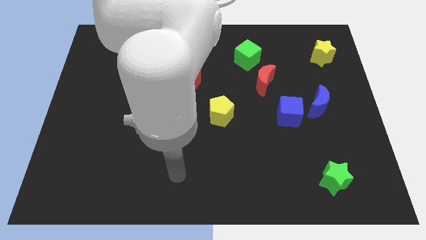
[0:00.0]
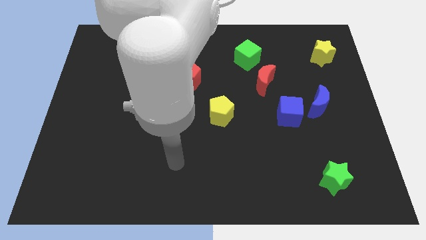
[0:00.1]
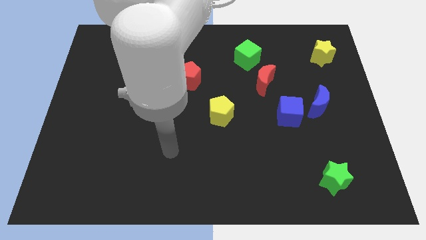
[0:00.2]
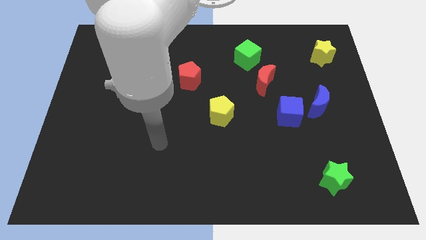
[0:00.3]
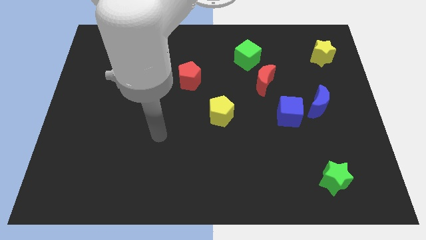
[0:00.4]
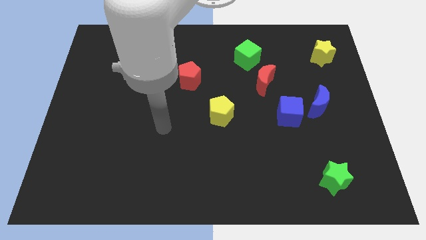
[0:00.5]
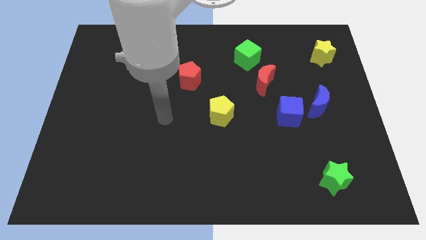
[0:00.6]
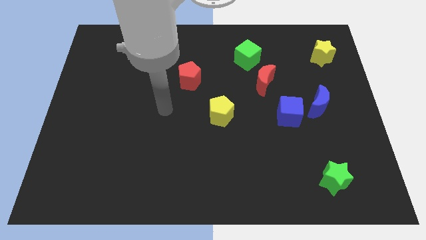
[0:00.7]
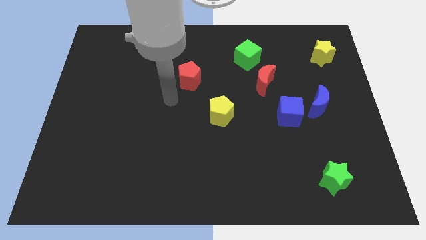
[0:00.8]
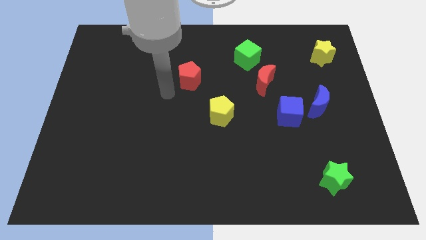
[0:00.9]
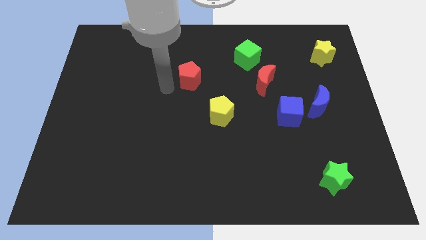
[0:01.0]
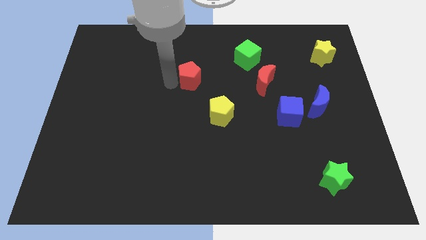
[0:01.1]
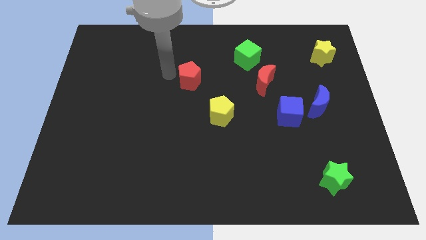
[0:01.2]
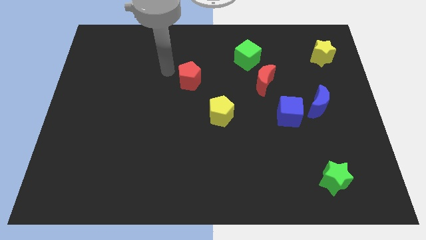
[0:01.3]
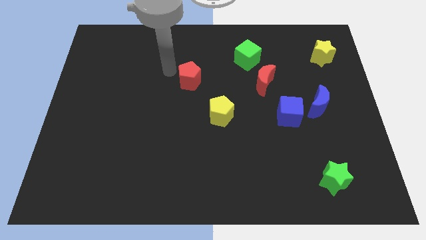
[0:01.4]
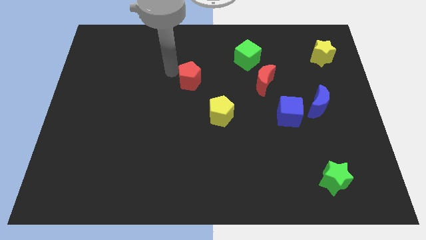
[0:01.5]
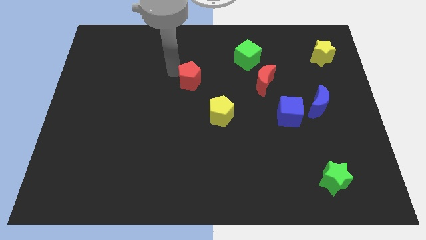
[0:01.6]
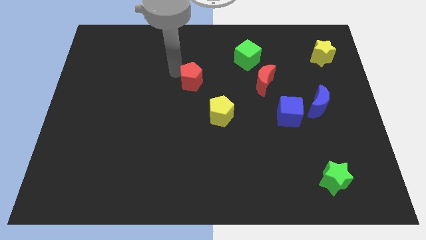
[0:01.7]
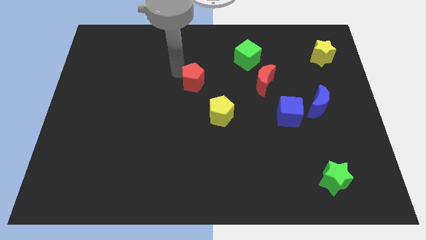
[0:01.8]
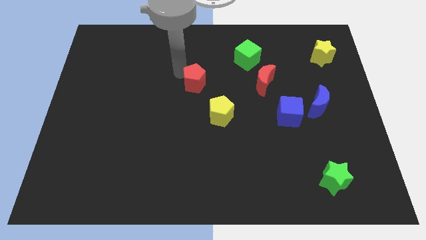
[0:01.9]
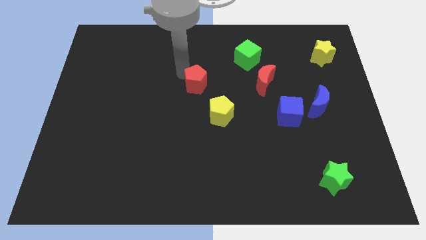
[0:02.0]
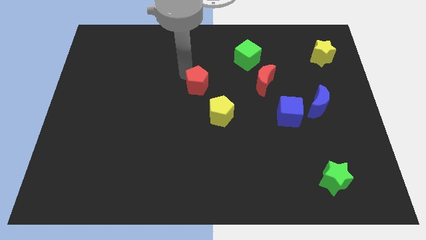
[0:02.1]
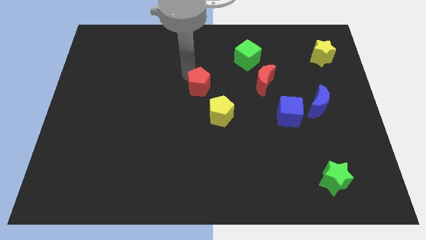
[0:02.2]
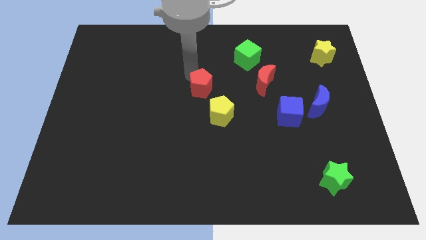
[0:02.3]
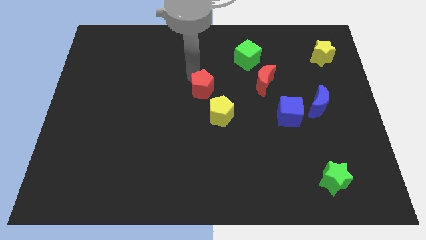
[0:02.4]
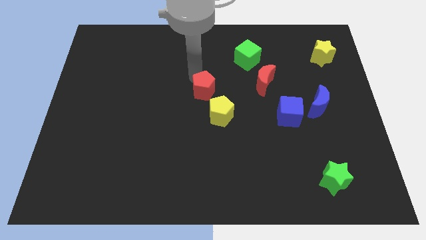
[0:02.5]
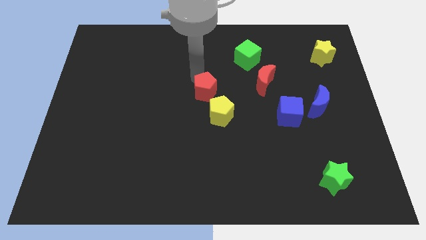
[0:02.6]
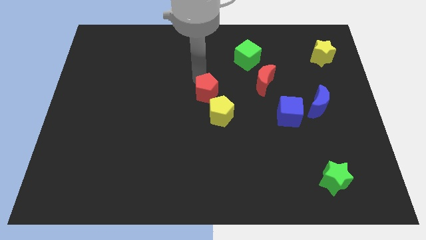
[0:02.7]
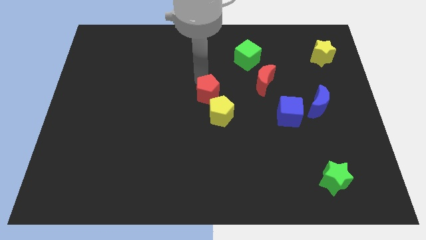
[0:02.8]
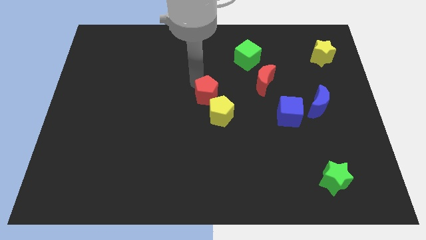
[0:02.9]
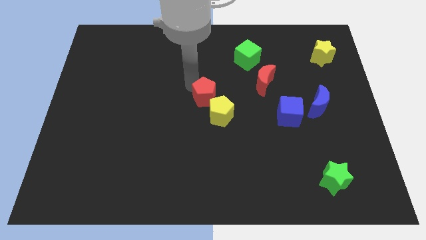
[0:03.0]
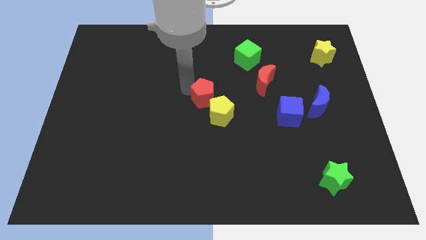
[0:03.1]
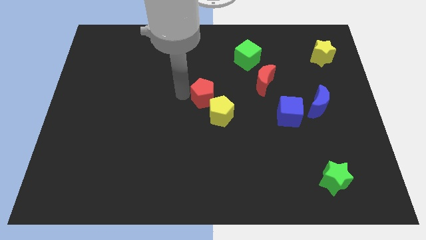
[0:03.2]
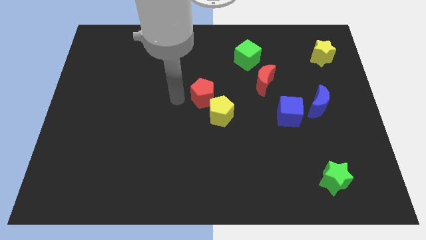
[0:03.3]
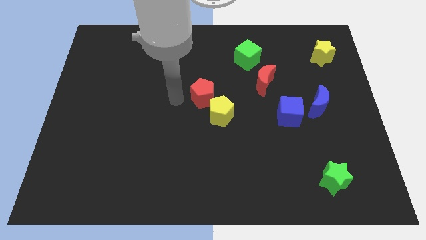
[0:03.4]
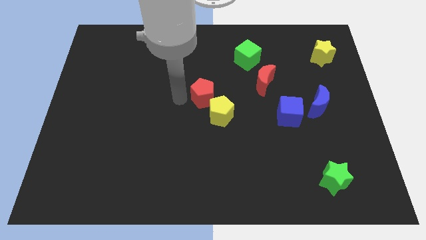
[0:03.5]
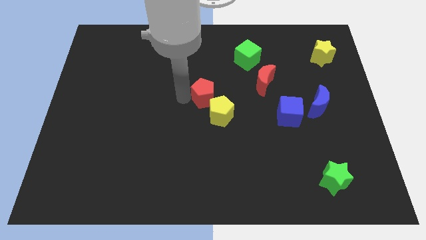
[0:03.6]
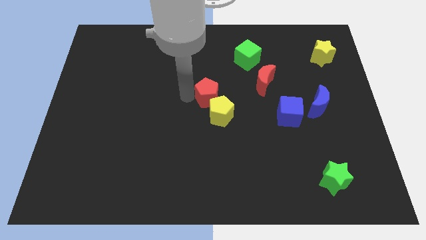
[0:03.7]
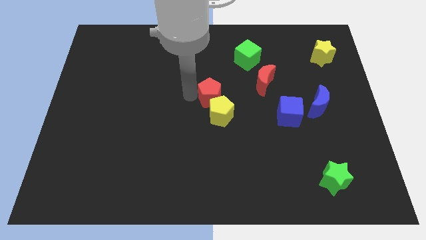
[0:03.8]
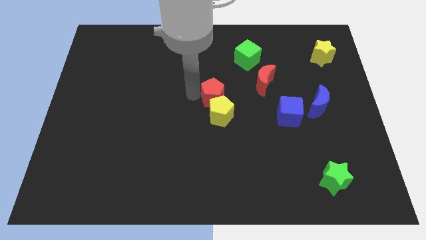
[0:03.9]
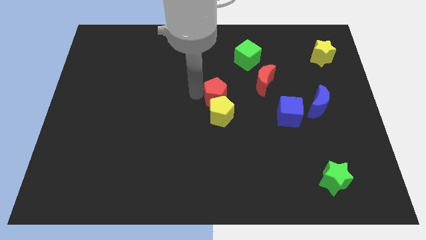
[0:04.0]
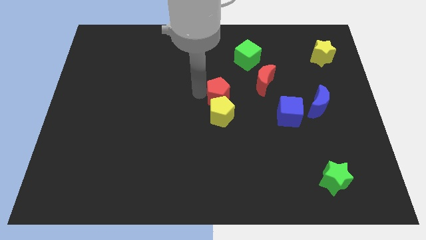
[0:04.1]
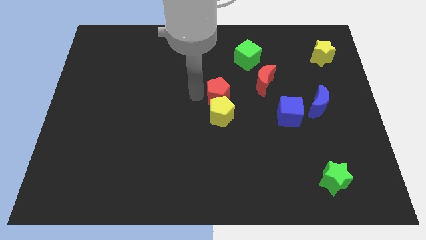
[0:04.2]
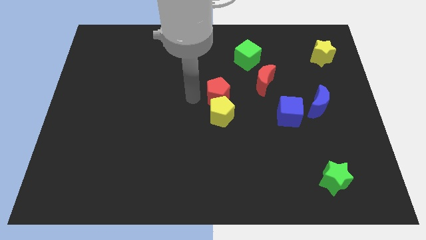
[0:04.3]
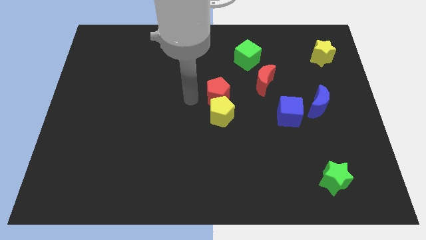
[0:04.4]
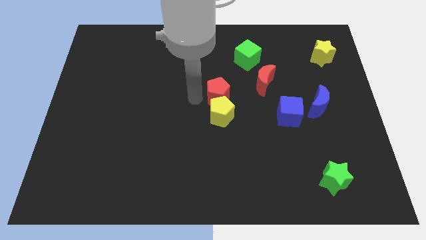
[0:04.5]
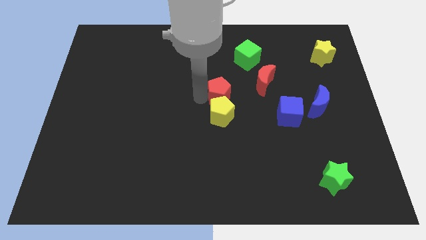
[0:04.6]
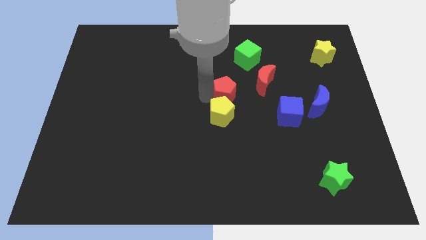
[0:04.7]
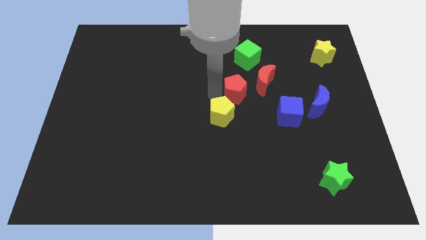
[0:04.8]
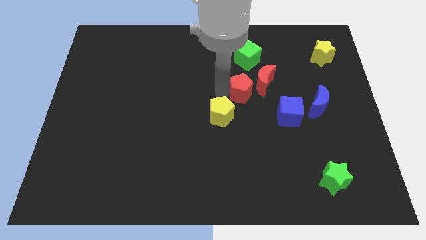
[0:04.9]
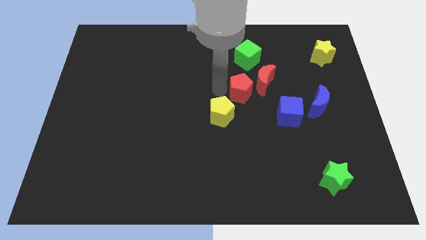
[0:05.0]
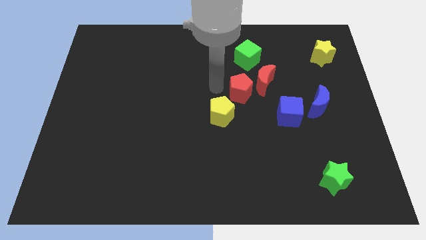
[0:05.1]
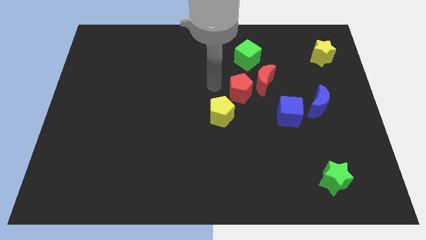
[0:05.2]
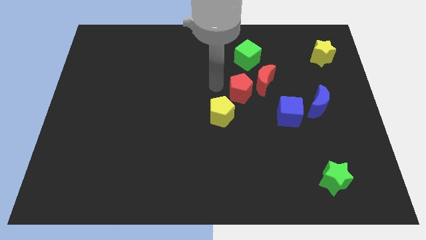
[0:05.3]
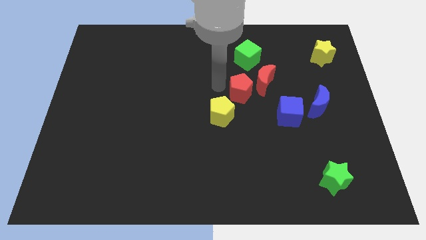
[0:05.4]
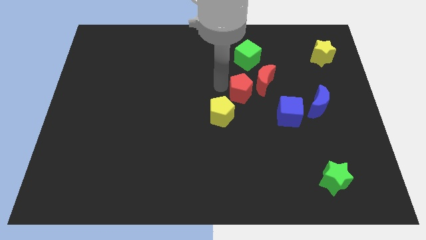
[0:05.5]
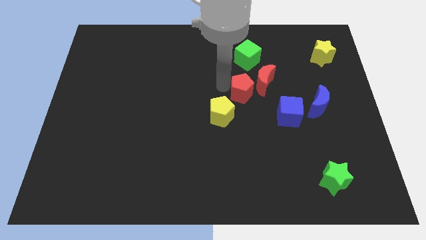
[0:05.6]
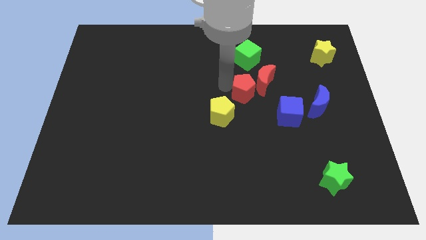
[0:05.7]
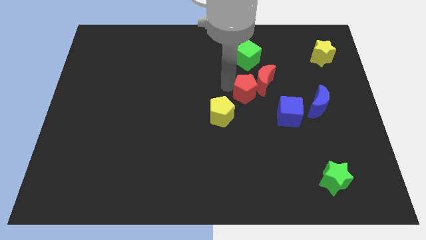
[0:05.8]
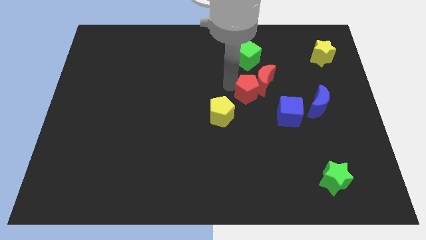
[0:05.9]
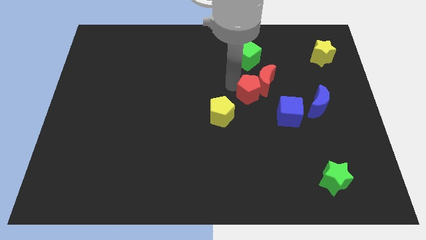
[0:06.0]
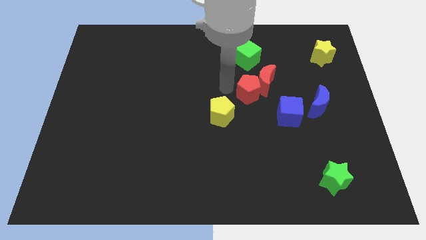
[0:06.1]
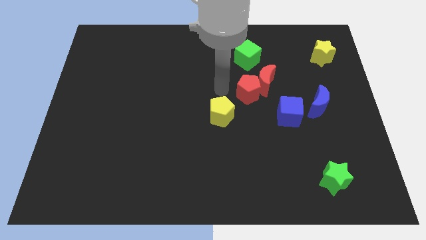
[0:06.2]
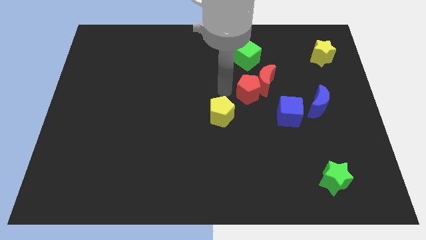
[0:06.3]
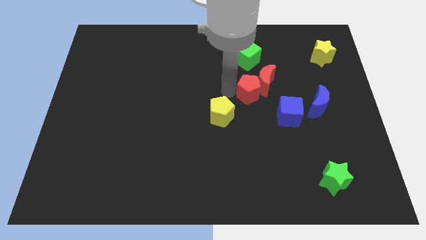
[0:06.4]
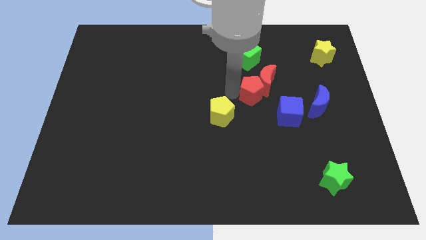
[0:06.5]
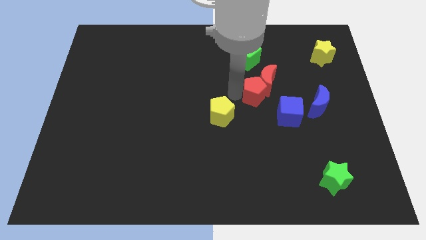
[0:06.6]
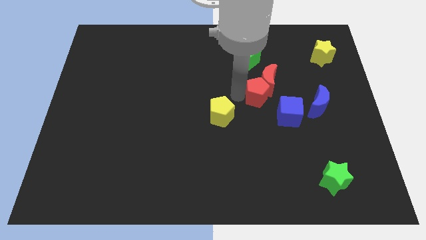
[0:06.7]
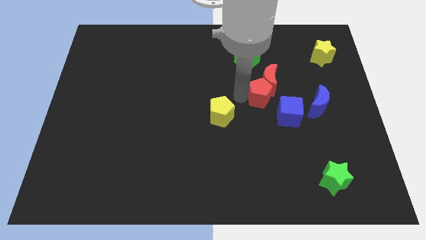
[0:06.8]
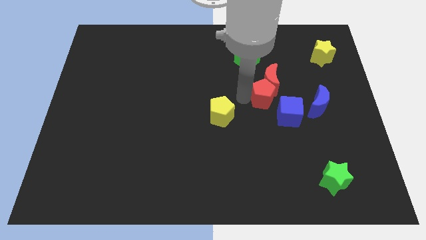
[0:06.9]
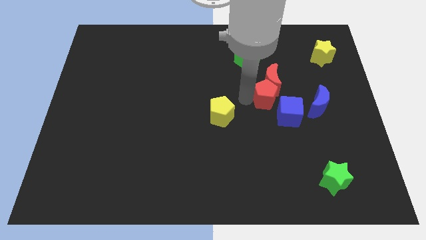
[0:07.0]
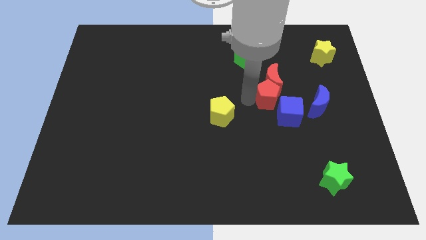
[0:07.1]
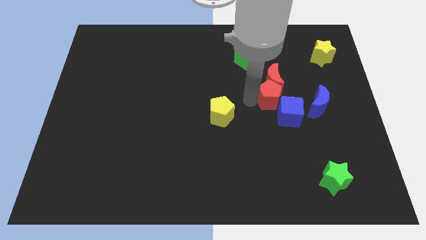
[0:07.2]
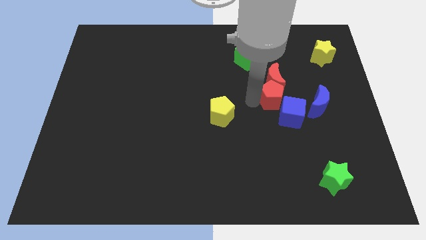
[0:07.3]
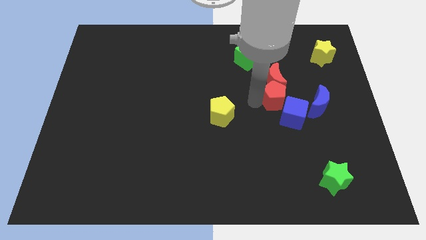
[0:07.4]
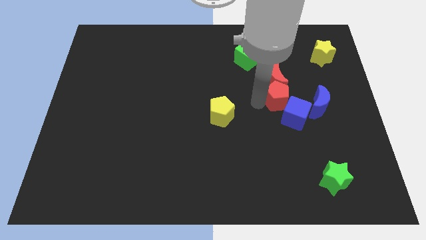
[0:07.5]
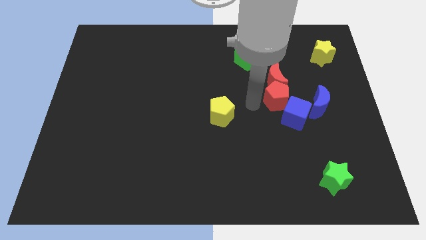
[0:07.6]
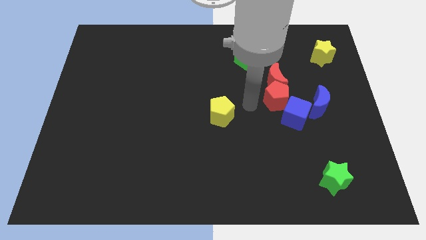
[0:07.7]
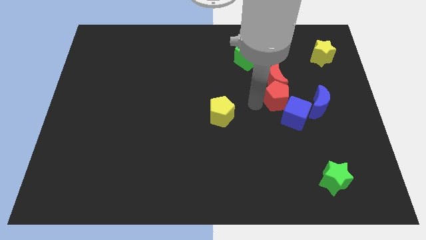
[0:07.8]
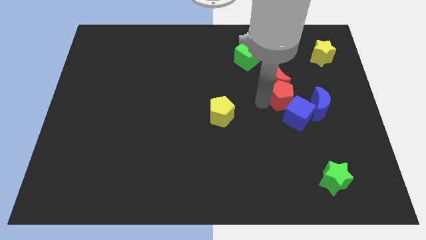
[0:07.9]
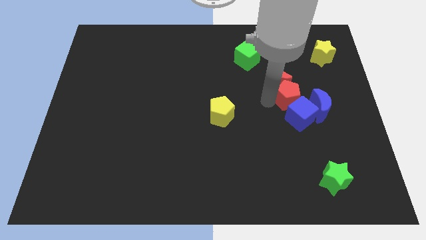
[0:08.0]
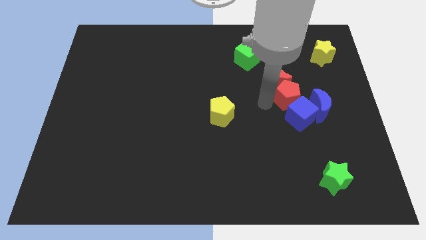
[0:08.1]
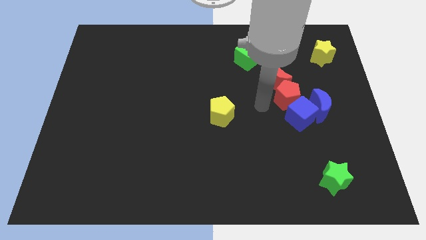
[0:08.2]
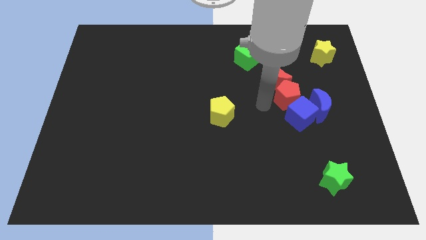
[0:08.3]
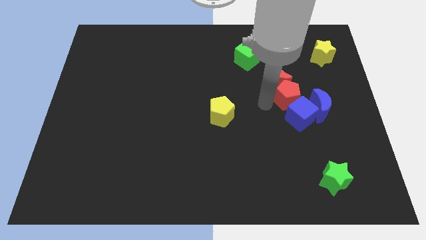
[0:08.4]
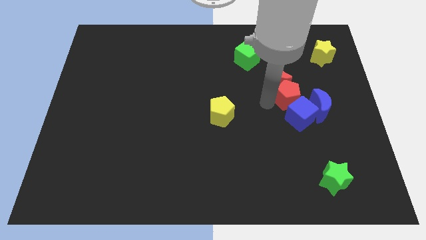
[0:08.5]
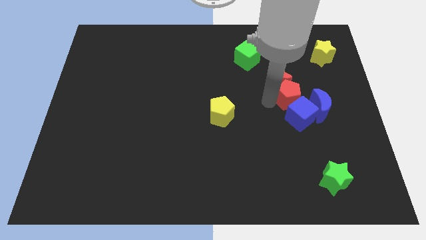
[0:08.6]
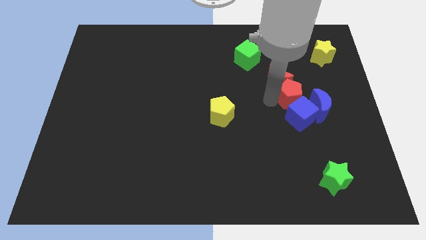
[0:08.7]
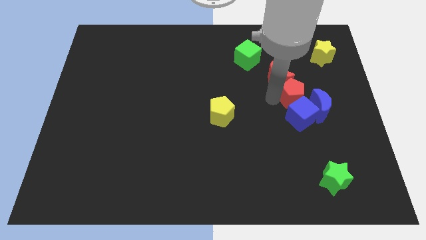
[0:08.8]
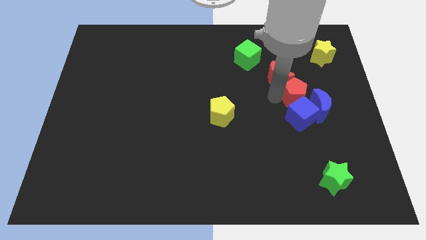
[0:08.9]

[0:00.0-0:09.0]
put the red pentagon diagonally up and to the right of the blue cube
